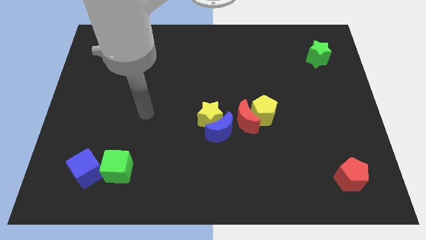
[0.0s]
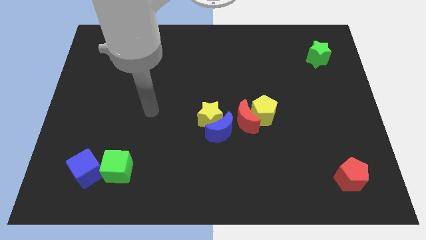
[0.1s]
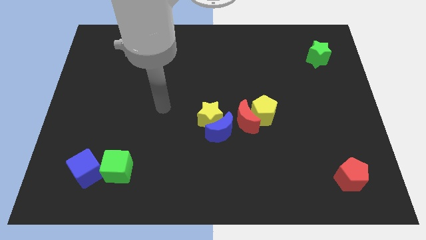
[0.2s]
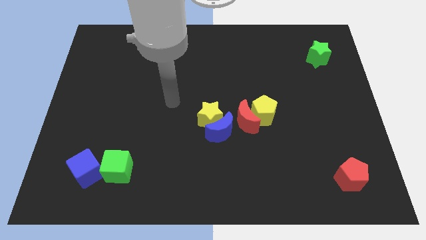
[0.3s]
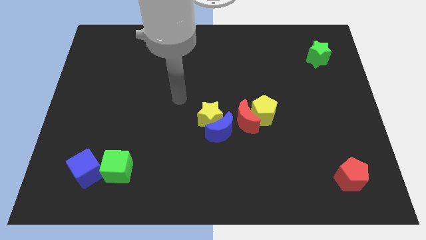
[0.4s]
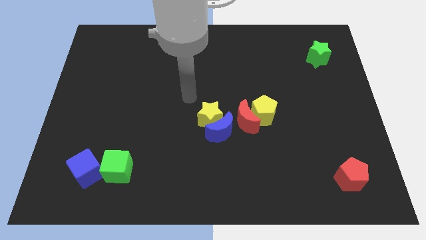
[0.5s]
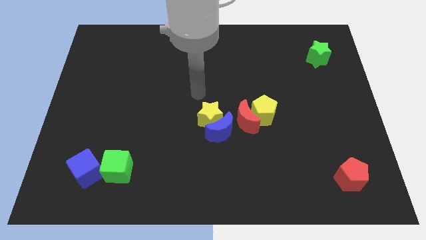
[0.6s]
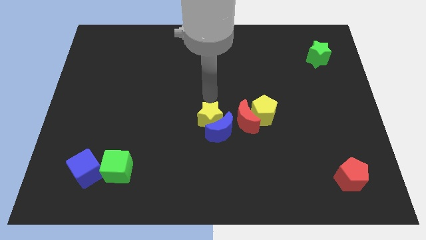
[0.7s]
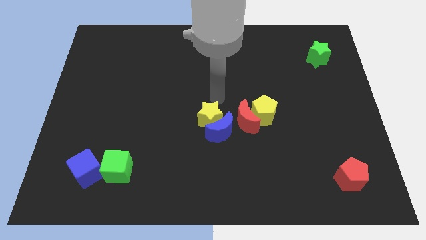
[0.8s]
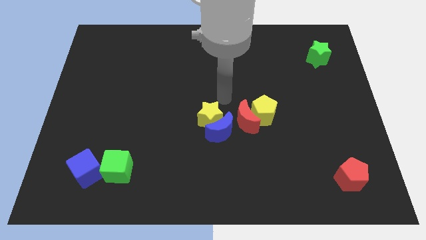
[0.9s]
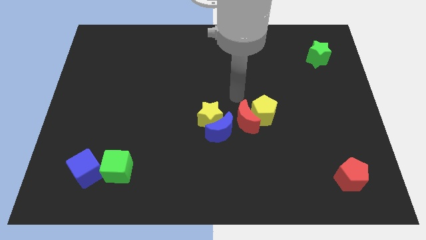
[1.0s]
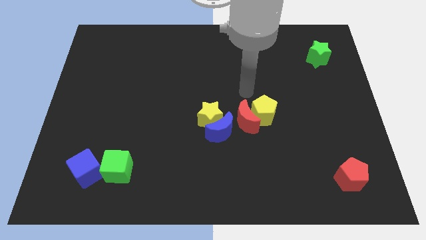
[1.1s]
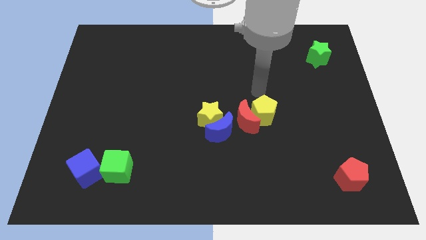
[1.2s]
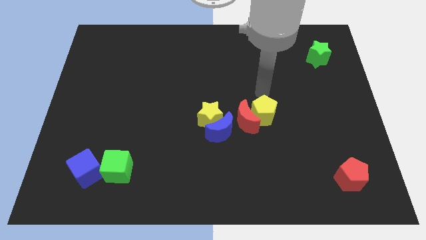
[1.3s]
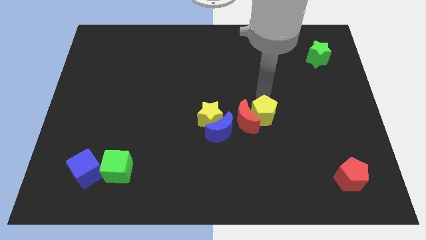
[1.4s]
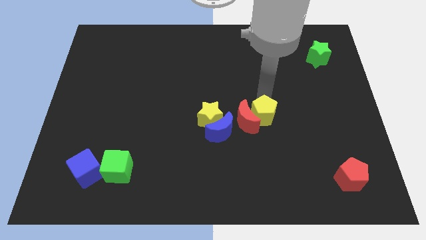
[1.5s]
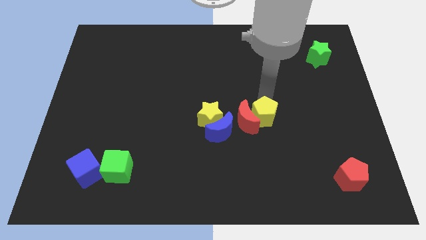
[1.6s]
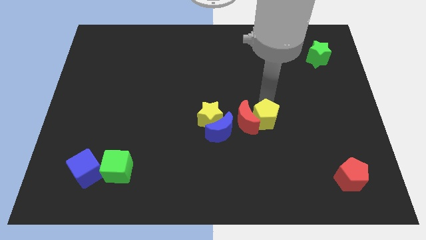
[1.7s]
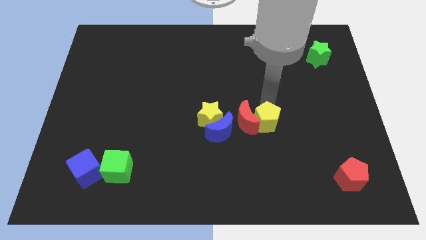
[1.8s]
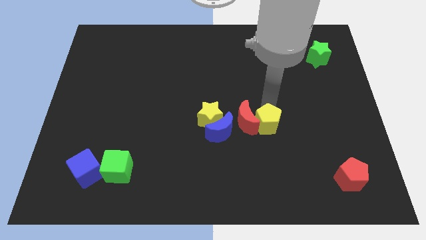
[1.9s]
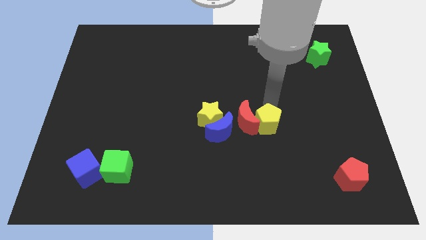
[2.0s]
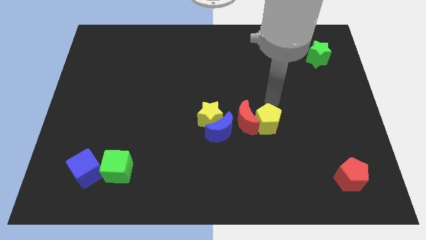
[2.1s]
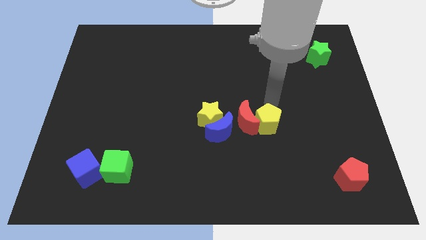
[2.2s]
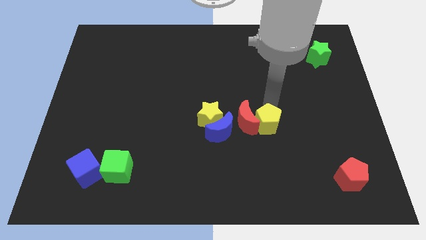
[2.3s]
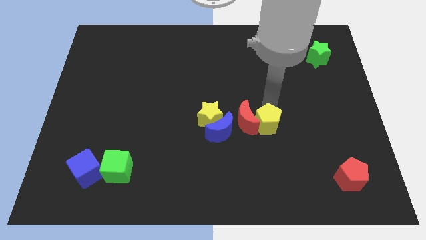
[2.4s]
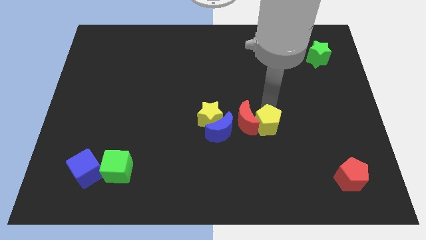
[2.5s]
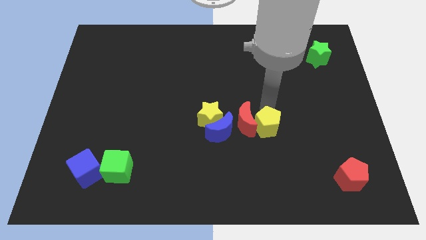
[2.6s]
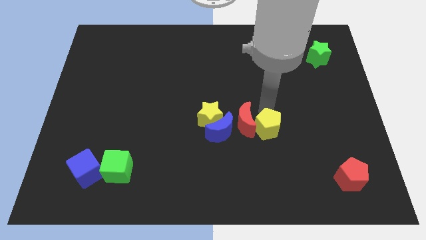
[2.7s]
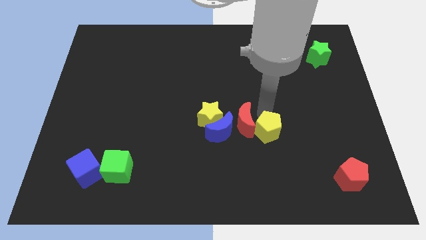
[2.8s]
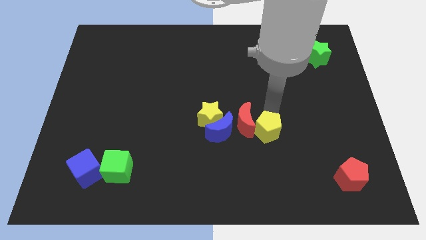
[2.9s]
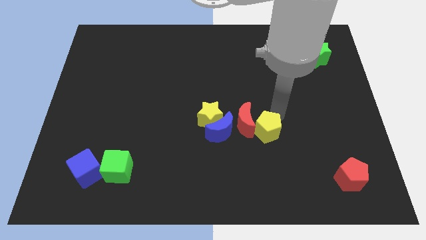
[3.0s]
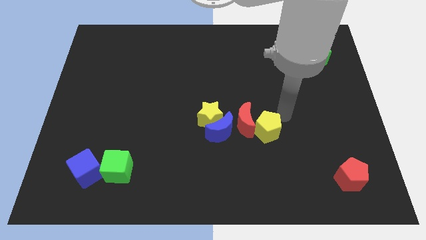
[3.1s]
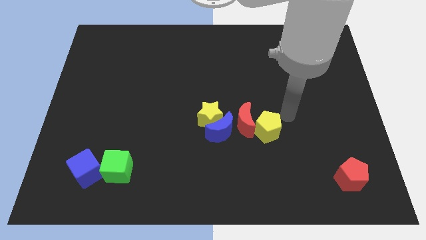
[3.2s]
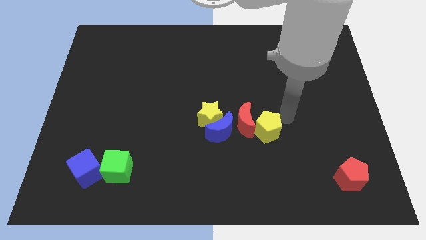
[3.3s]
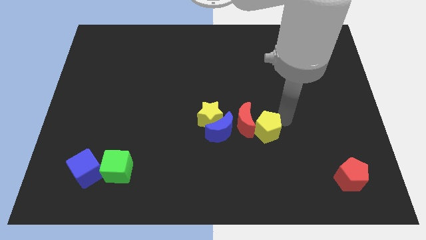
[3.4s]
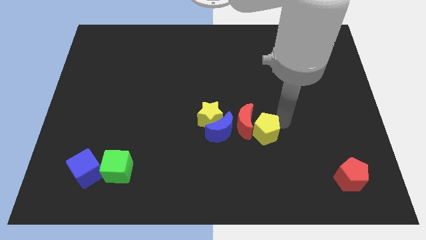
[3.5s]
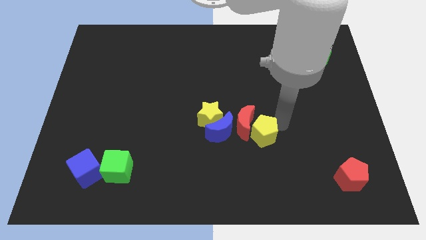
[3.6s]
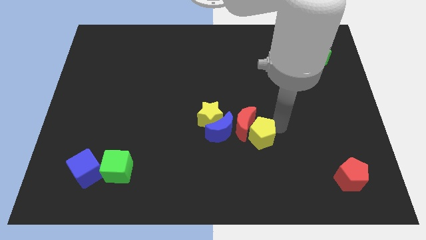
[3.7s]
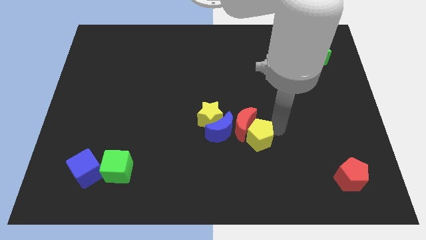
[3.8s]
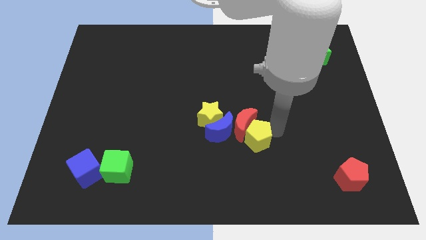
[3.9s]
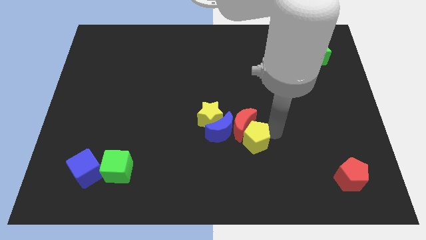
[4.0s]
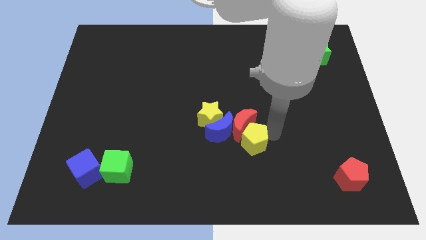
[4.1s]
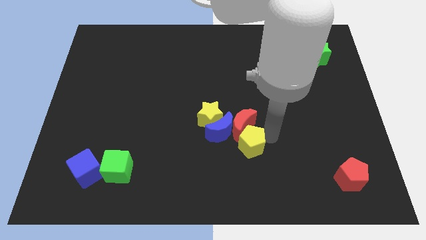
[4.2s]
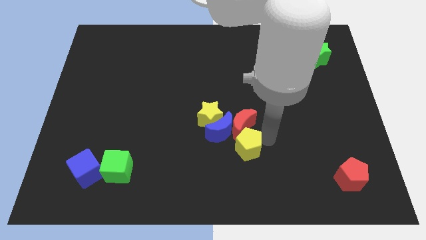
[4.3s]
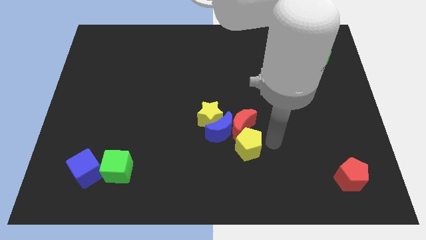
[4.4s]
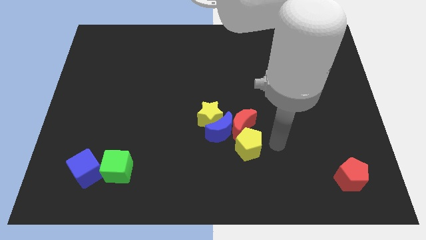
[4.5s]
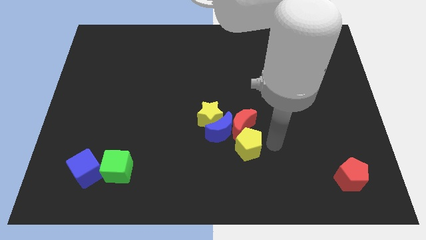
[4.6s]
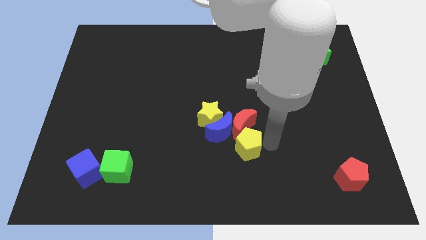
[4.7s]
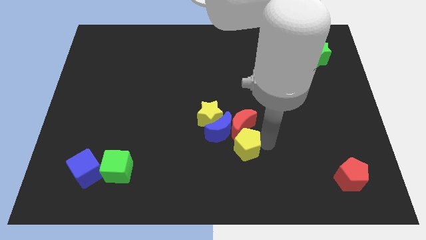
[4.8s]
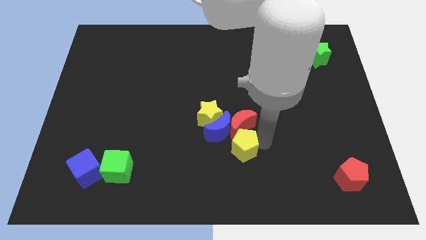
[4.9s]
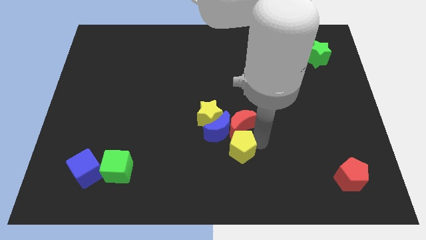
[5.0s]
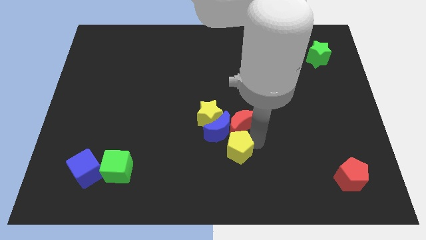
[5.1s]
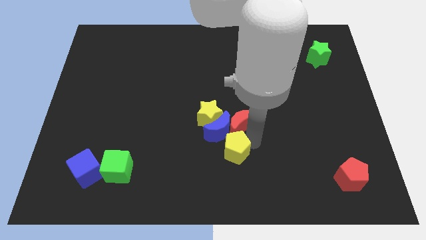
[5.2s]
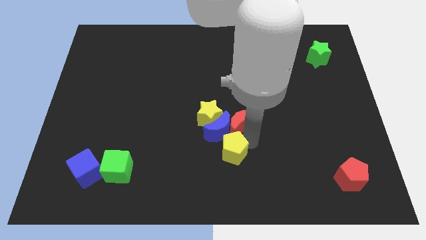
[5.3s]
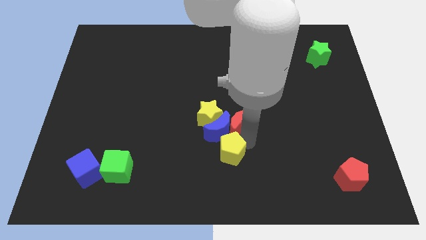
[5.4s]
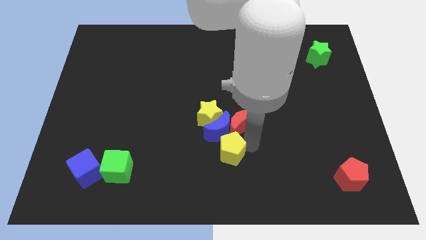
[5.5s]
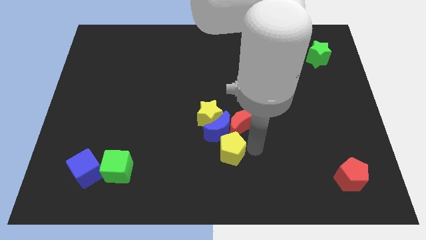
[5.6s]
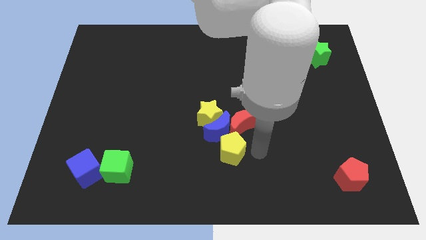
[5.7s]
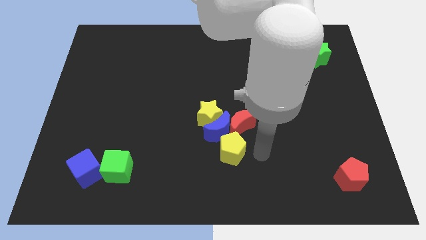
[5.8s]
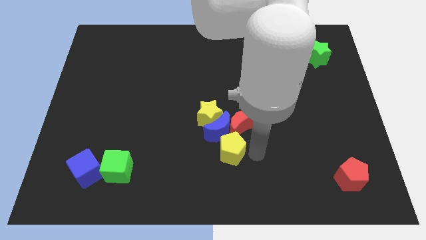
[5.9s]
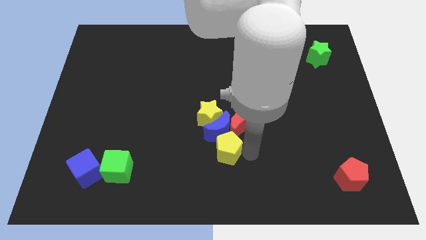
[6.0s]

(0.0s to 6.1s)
slide the yellow pentagon to the bottom left side of the blue moon

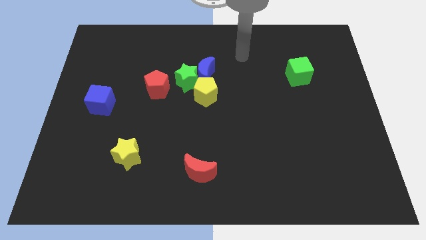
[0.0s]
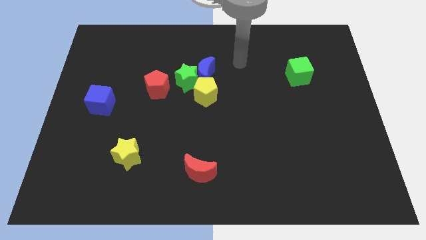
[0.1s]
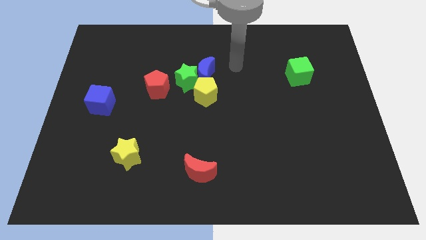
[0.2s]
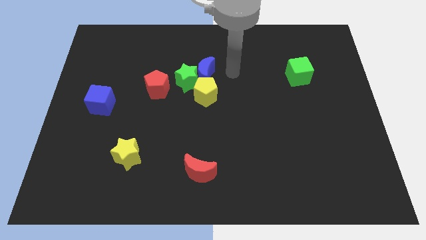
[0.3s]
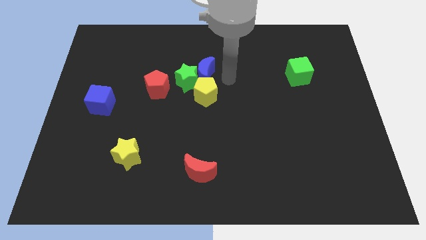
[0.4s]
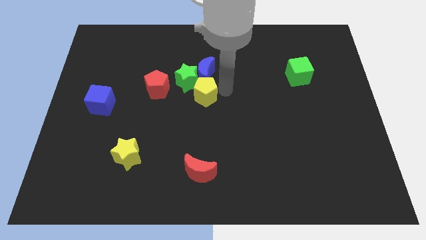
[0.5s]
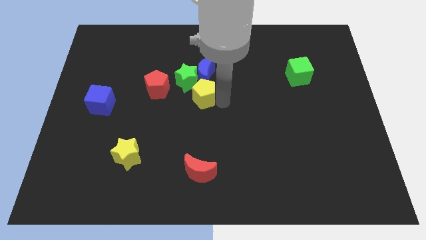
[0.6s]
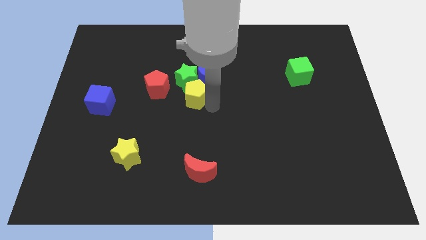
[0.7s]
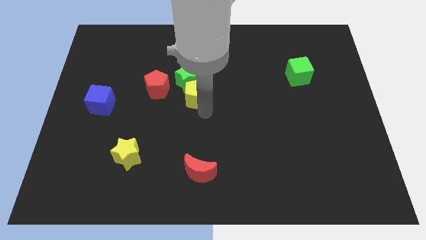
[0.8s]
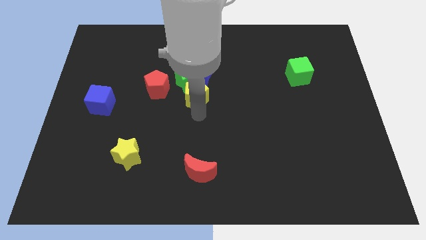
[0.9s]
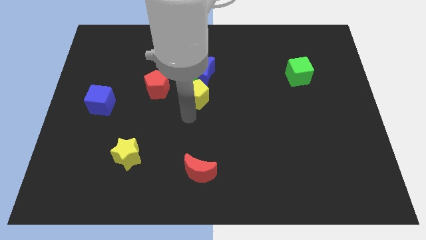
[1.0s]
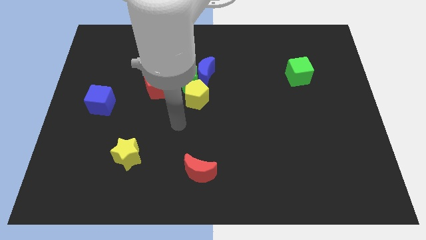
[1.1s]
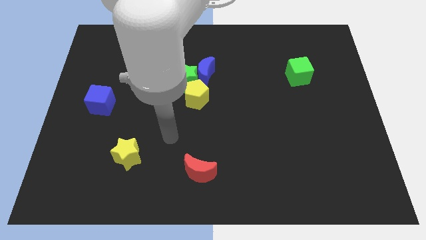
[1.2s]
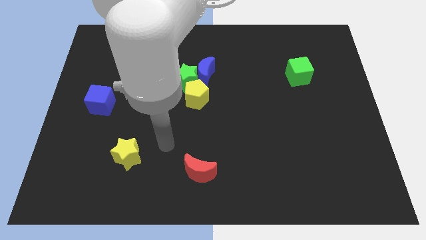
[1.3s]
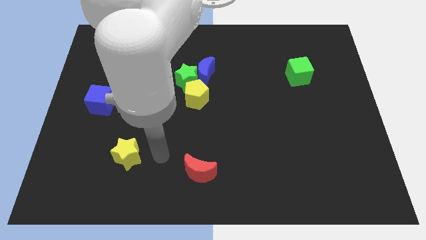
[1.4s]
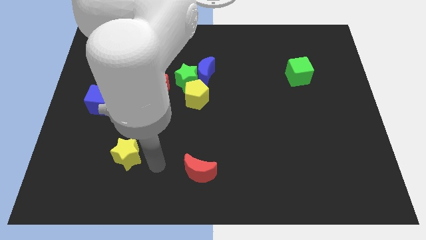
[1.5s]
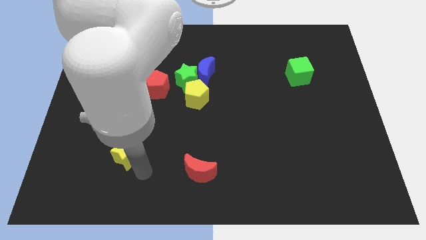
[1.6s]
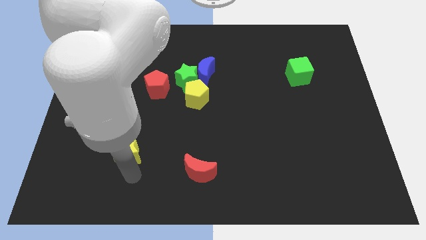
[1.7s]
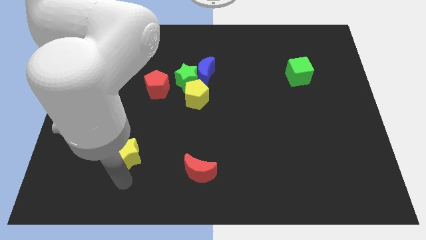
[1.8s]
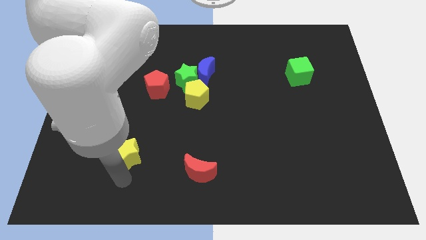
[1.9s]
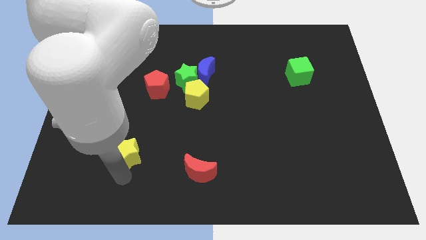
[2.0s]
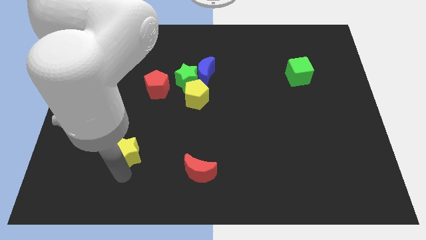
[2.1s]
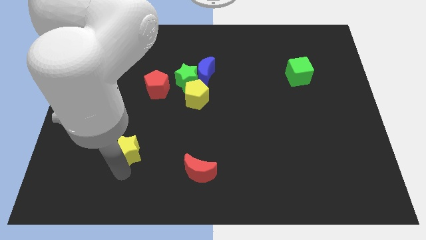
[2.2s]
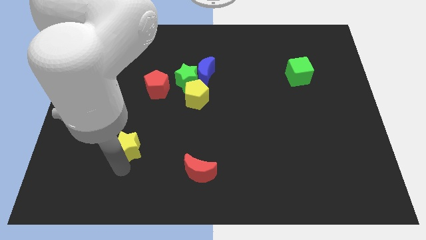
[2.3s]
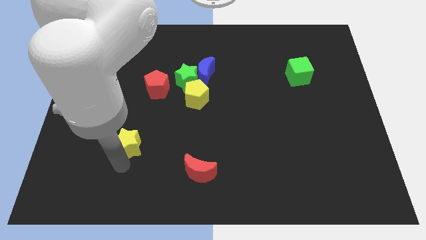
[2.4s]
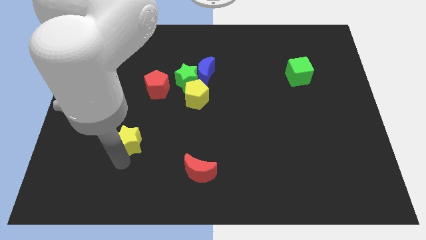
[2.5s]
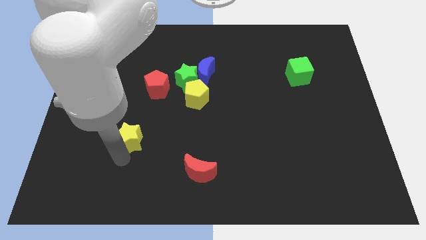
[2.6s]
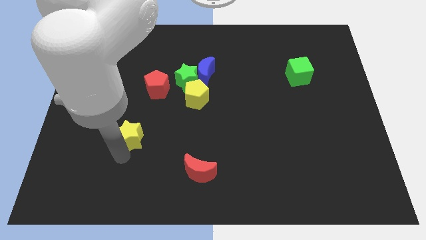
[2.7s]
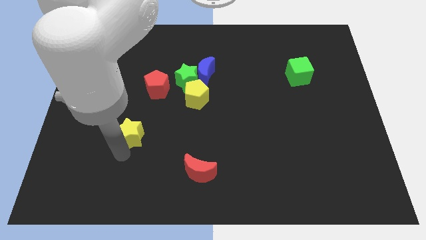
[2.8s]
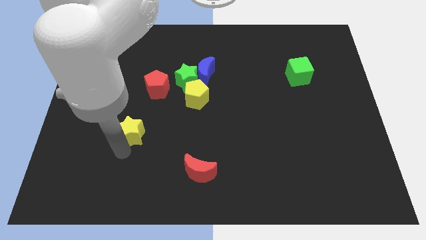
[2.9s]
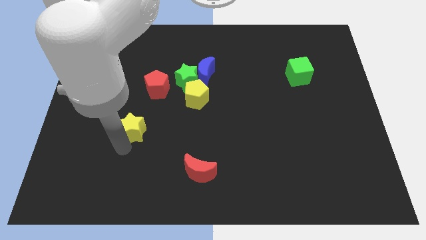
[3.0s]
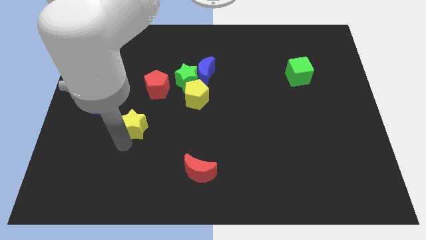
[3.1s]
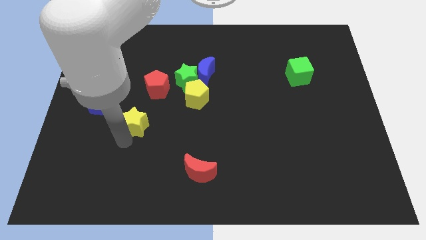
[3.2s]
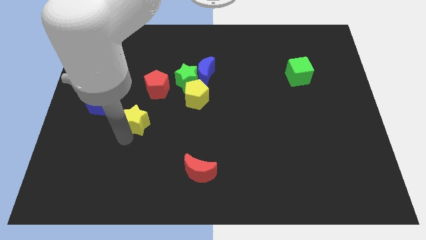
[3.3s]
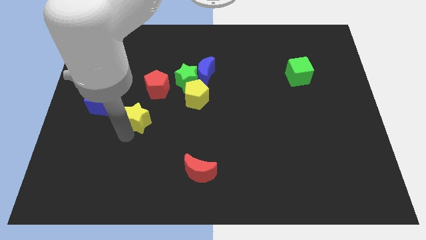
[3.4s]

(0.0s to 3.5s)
push the yellow star to the right of the blue cube
